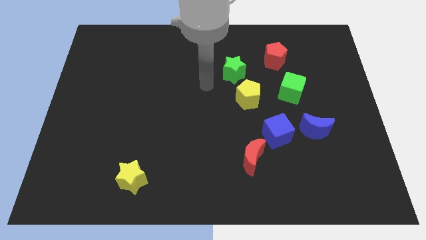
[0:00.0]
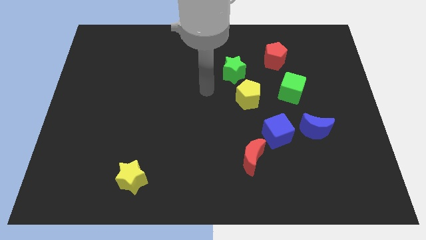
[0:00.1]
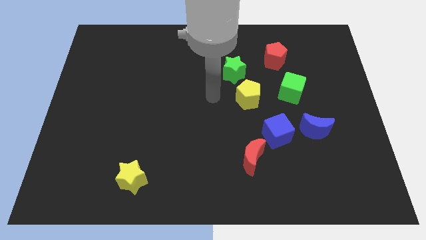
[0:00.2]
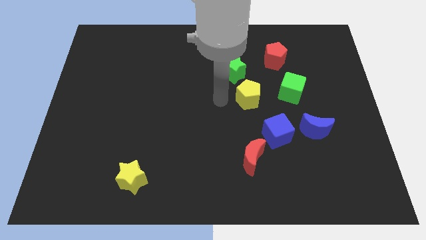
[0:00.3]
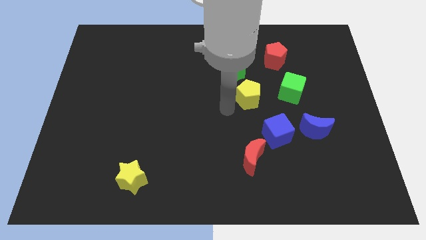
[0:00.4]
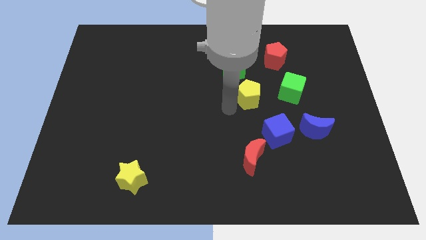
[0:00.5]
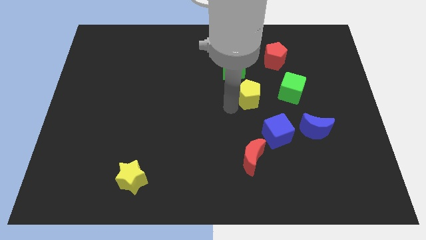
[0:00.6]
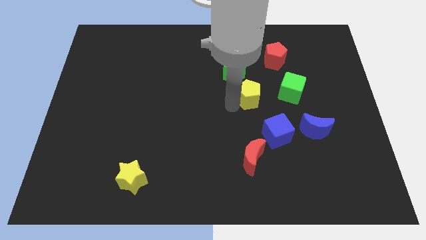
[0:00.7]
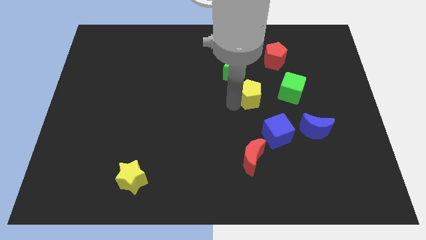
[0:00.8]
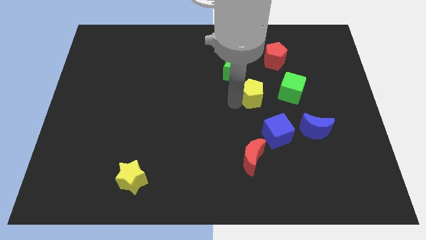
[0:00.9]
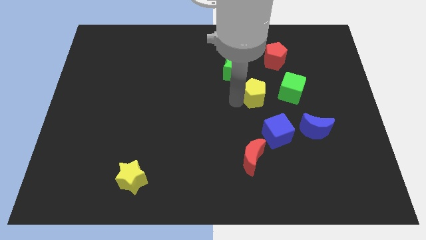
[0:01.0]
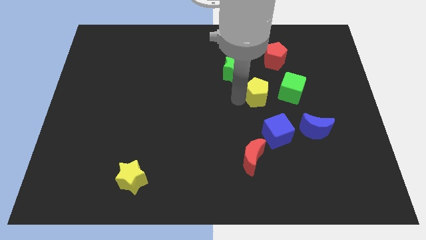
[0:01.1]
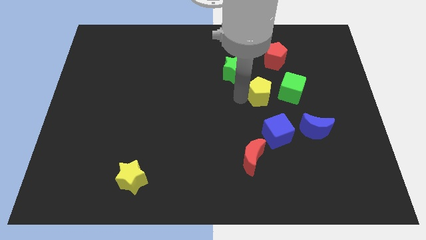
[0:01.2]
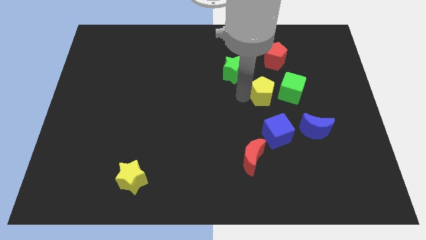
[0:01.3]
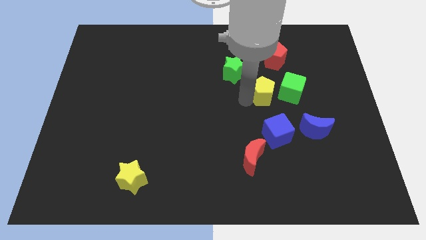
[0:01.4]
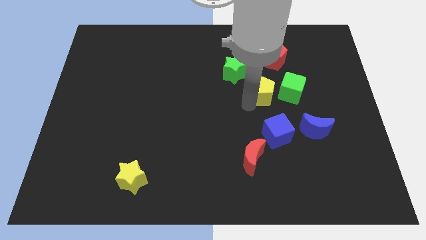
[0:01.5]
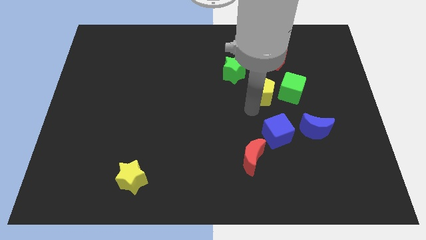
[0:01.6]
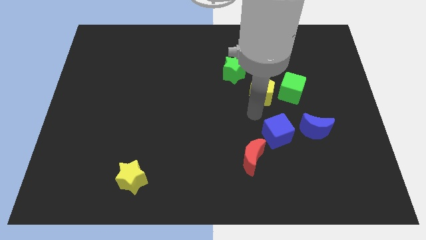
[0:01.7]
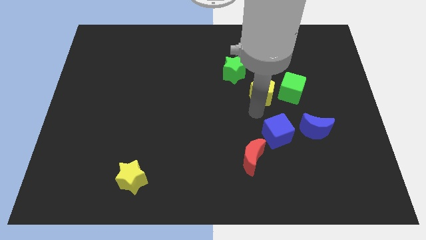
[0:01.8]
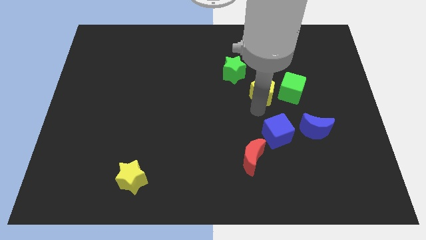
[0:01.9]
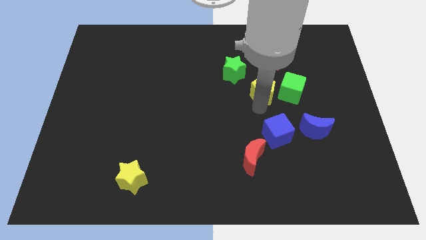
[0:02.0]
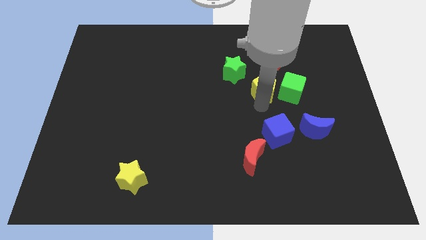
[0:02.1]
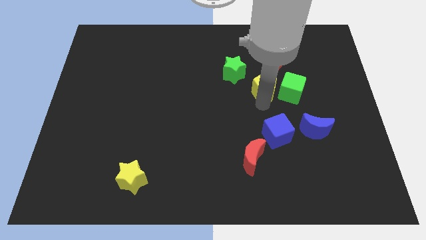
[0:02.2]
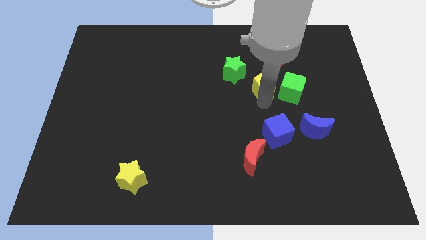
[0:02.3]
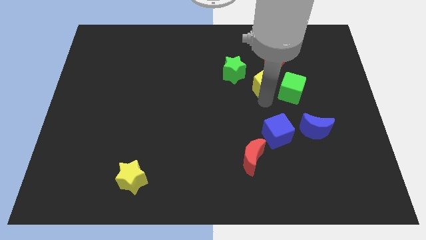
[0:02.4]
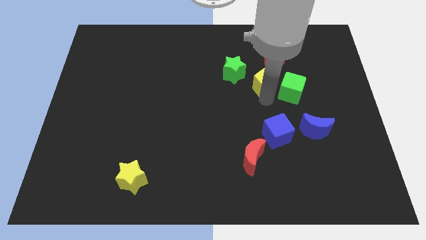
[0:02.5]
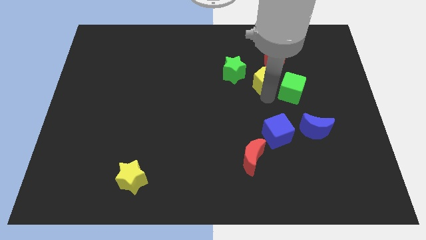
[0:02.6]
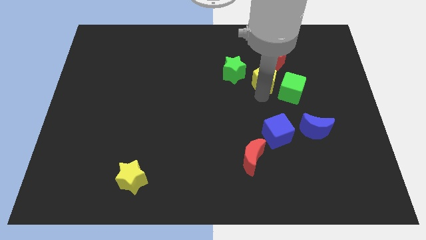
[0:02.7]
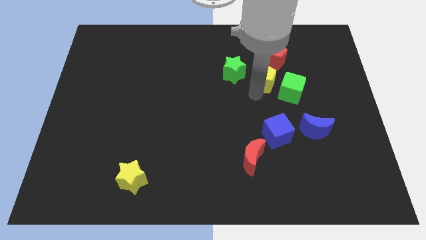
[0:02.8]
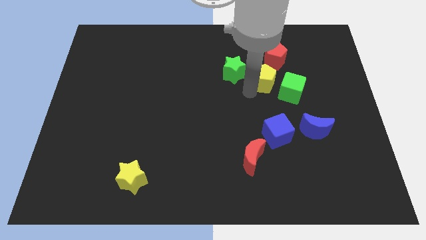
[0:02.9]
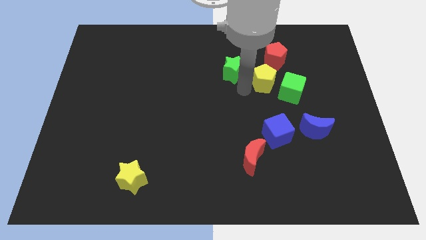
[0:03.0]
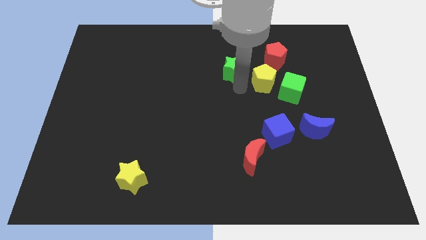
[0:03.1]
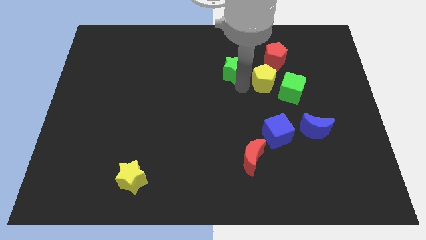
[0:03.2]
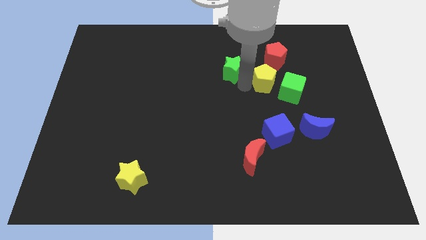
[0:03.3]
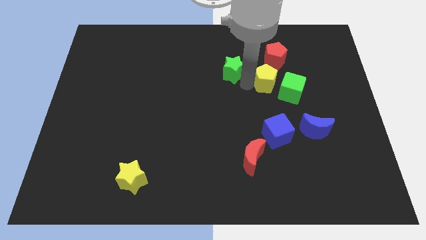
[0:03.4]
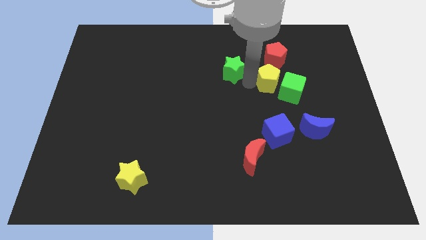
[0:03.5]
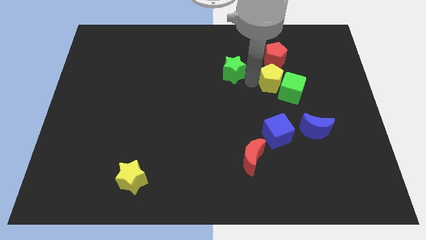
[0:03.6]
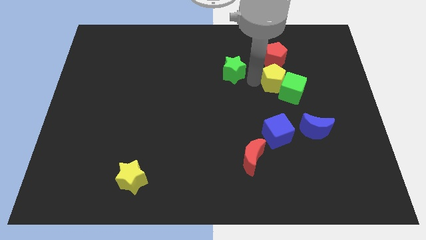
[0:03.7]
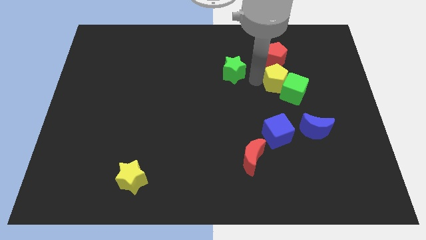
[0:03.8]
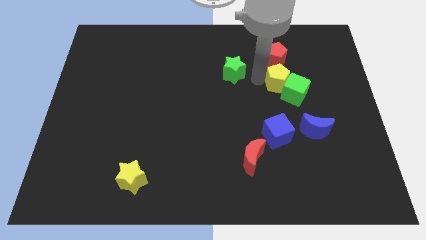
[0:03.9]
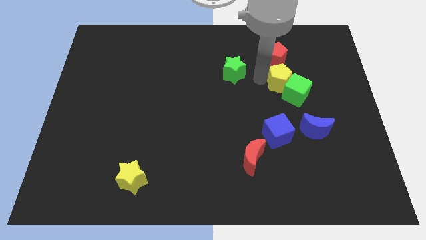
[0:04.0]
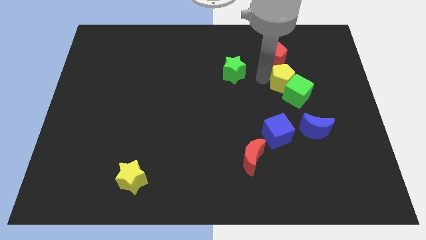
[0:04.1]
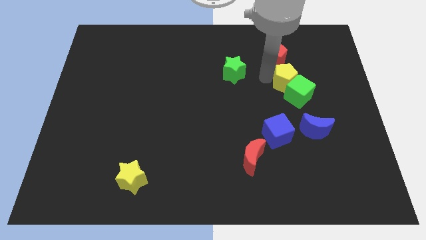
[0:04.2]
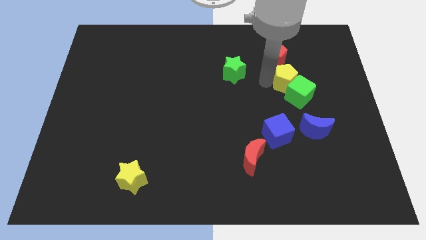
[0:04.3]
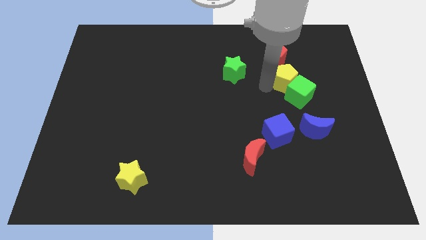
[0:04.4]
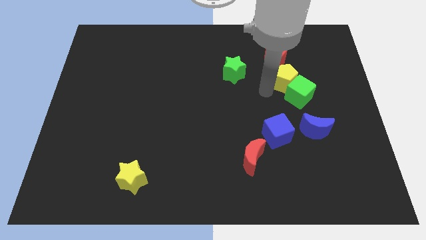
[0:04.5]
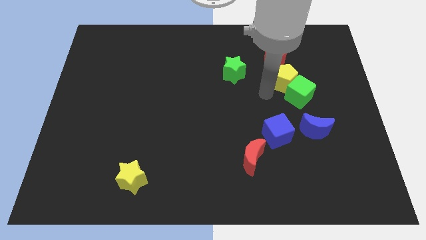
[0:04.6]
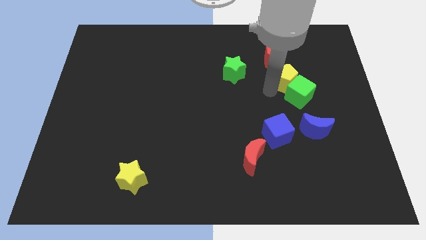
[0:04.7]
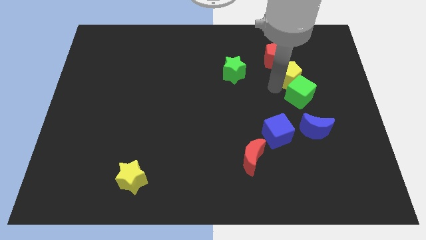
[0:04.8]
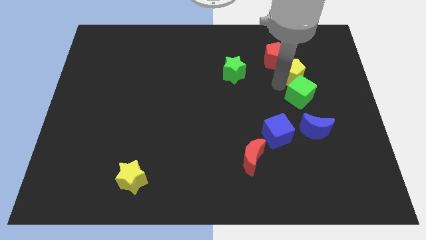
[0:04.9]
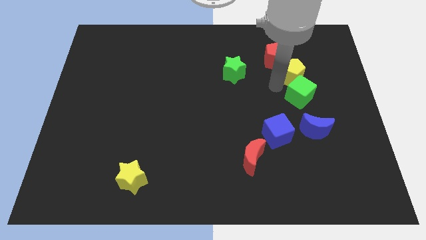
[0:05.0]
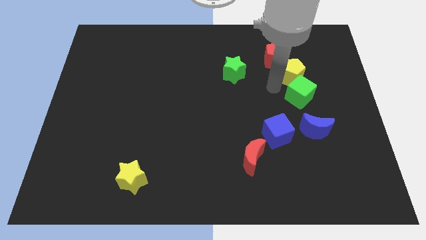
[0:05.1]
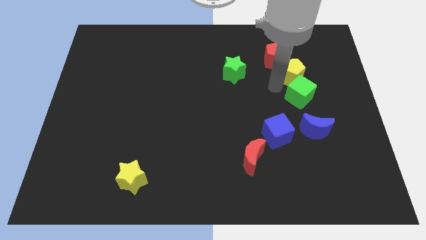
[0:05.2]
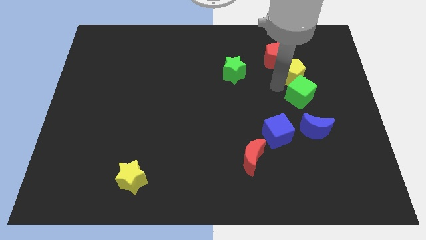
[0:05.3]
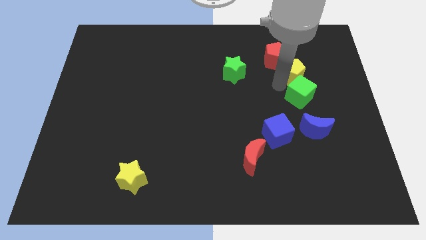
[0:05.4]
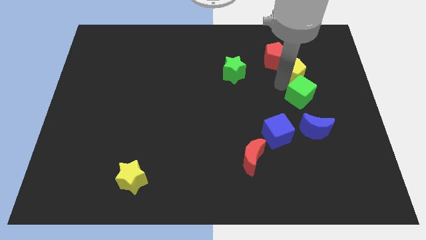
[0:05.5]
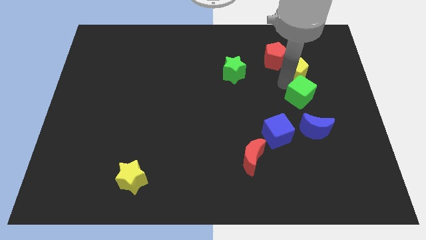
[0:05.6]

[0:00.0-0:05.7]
push the yellow pentagon to the right of the red pentagon

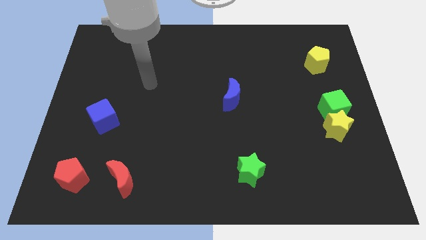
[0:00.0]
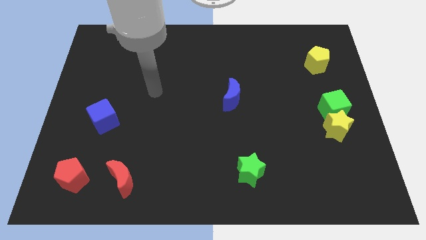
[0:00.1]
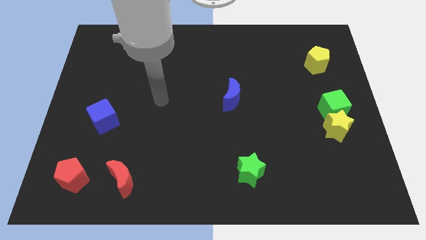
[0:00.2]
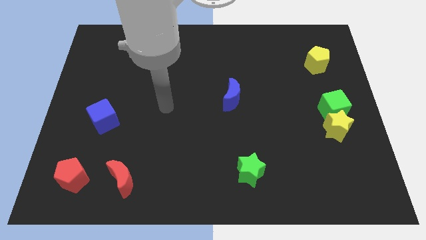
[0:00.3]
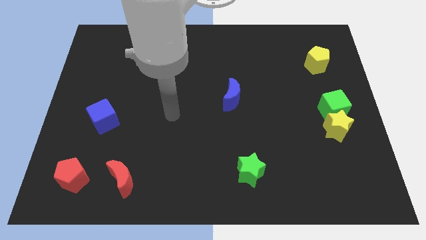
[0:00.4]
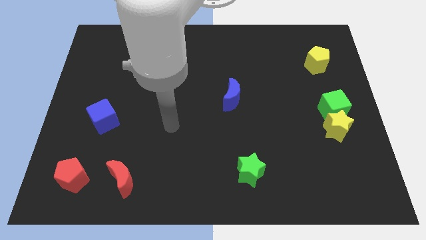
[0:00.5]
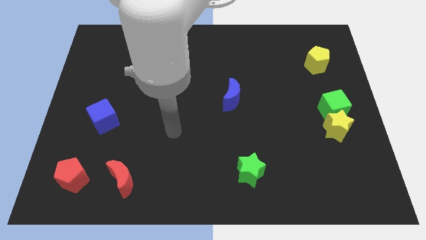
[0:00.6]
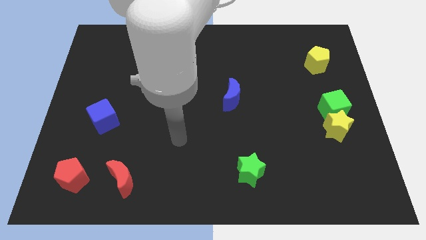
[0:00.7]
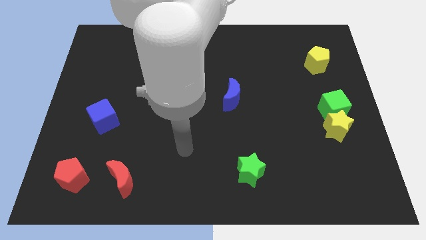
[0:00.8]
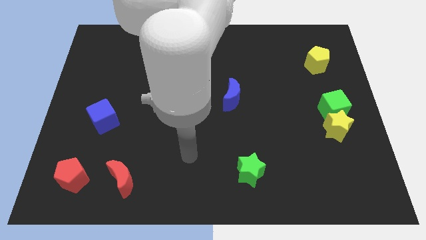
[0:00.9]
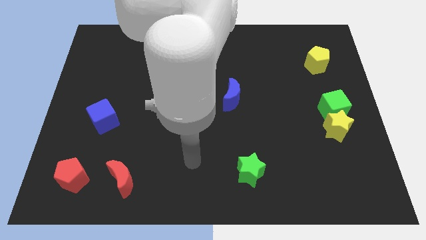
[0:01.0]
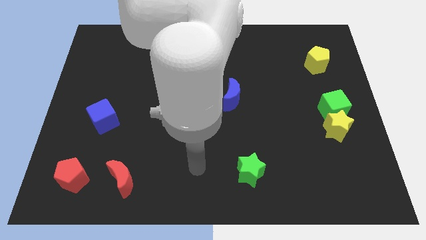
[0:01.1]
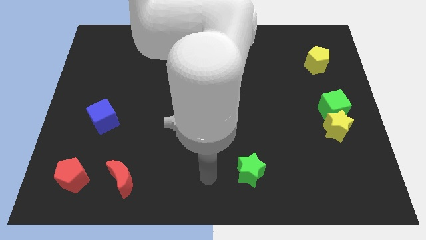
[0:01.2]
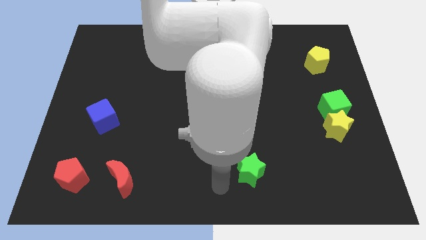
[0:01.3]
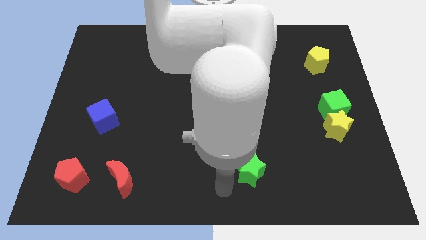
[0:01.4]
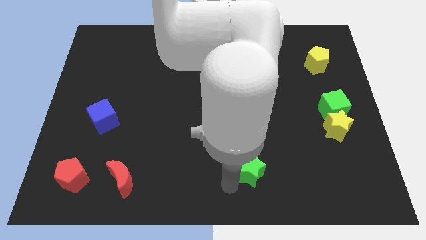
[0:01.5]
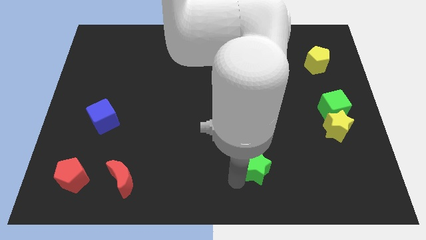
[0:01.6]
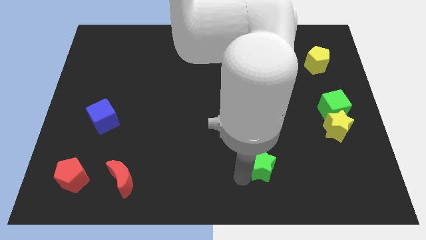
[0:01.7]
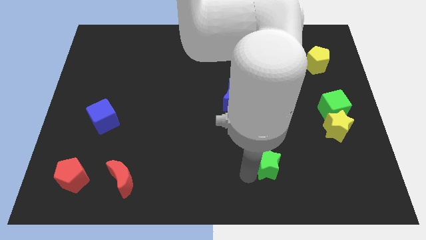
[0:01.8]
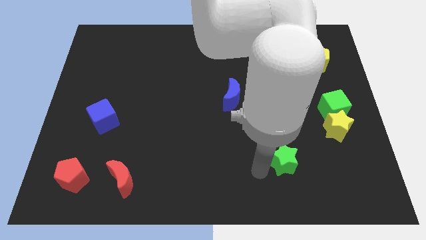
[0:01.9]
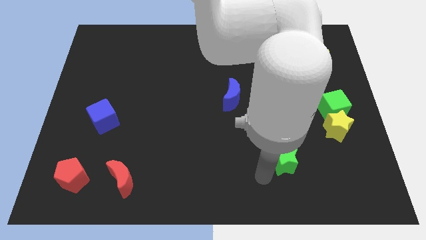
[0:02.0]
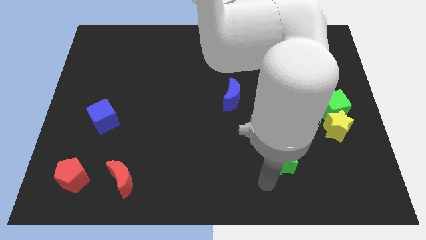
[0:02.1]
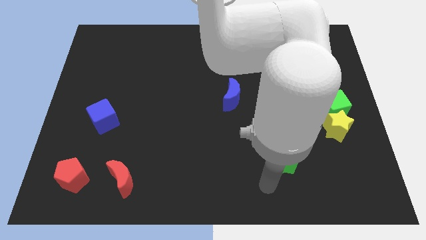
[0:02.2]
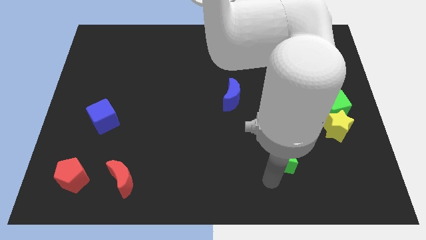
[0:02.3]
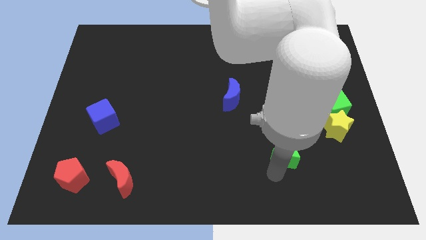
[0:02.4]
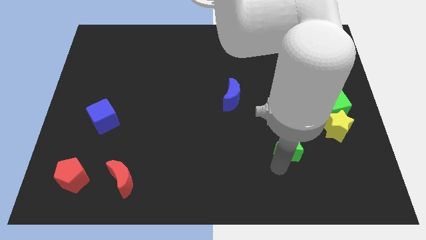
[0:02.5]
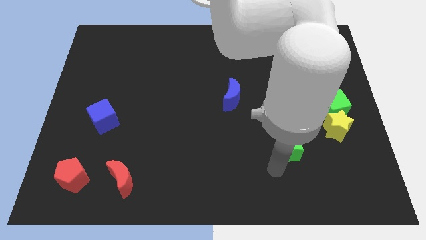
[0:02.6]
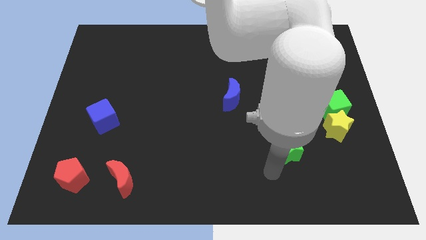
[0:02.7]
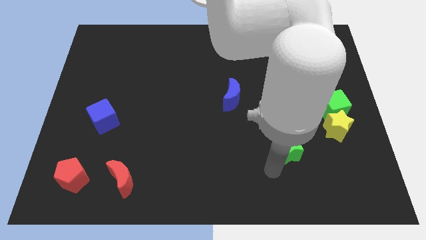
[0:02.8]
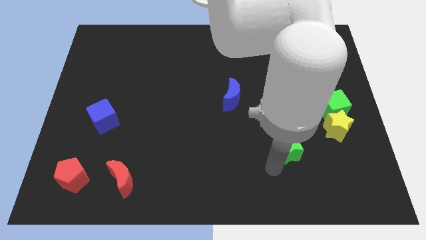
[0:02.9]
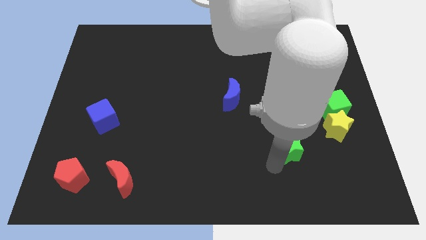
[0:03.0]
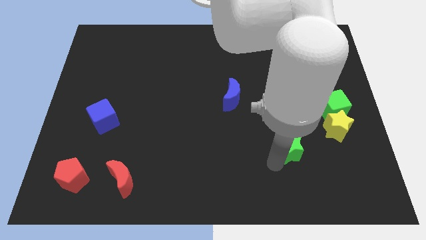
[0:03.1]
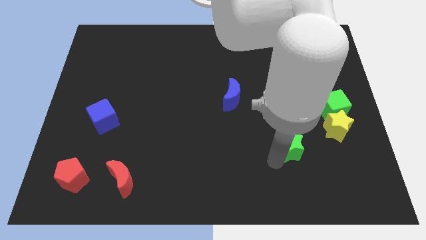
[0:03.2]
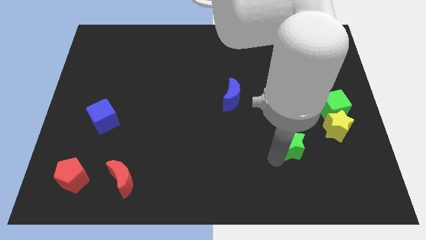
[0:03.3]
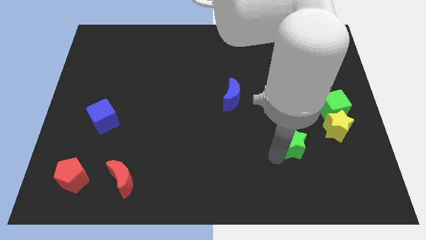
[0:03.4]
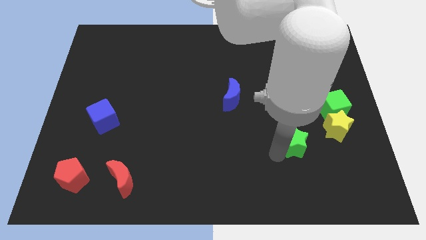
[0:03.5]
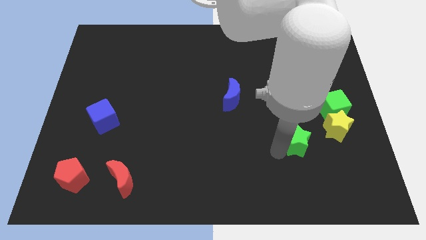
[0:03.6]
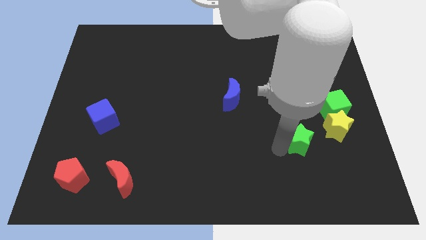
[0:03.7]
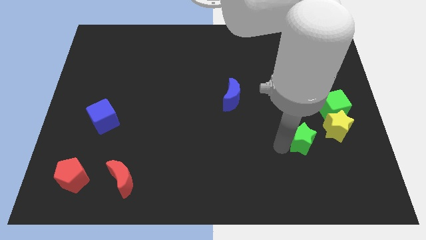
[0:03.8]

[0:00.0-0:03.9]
push the green star diagonally down and to the left of the green cube
